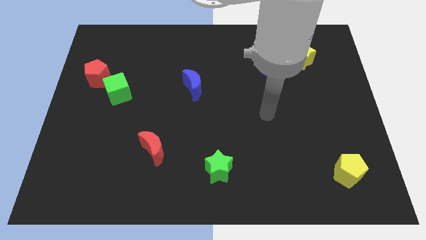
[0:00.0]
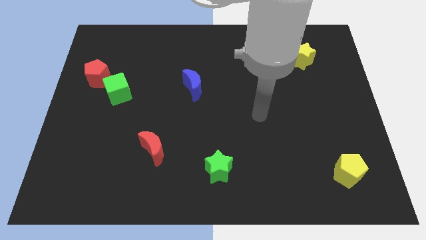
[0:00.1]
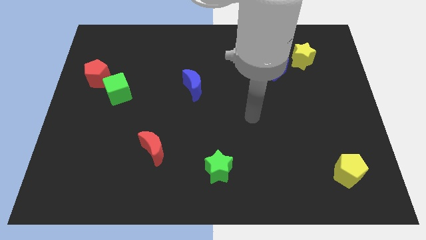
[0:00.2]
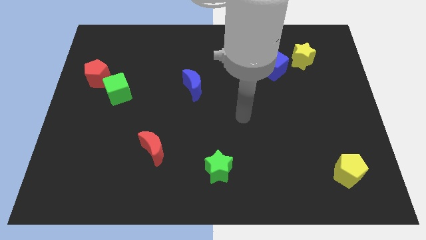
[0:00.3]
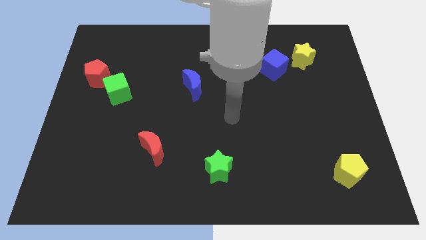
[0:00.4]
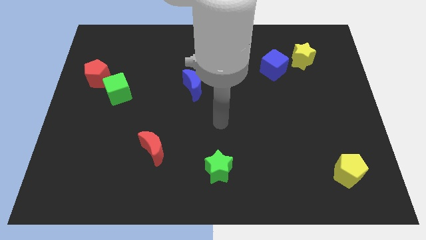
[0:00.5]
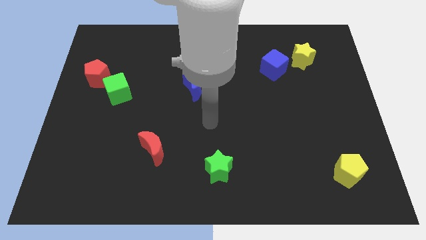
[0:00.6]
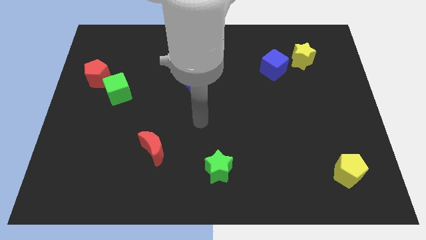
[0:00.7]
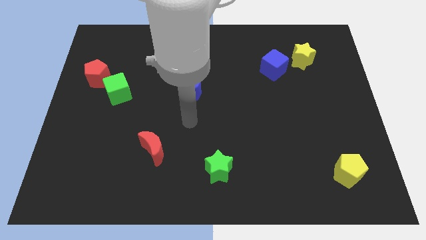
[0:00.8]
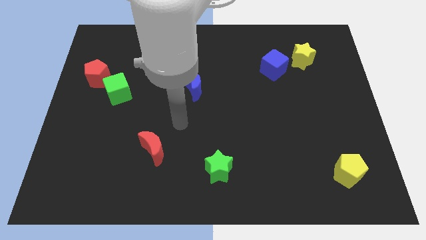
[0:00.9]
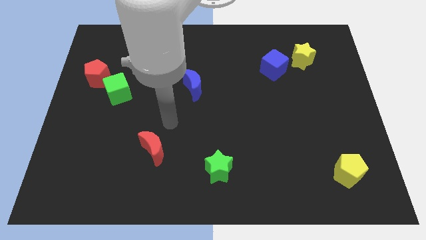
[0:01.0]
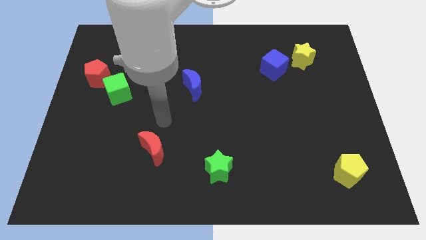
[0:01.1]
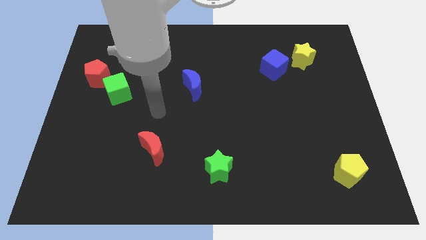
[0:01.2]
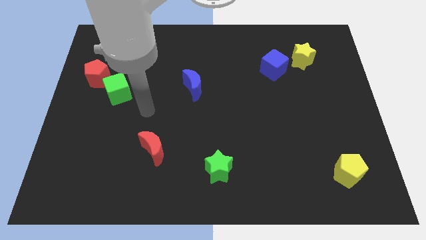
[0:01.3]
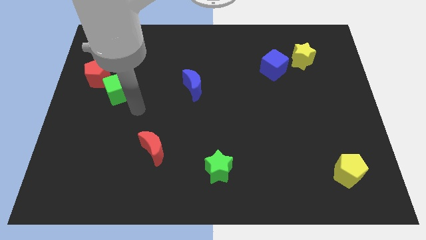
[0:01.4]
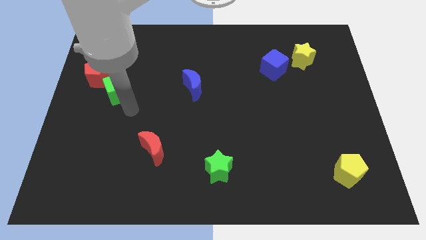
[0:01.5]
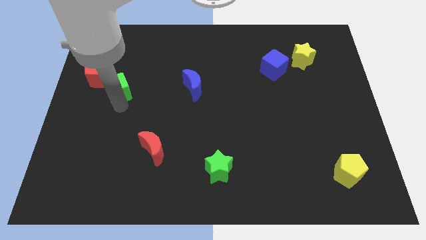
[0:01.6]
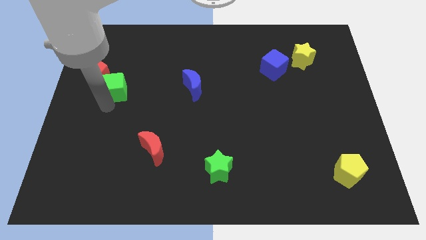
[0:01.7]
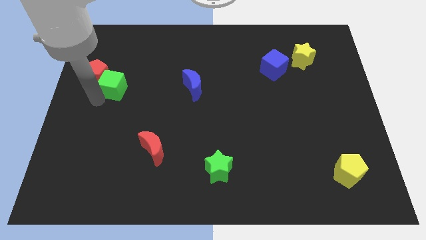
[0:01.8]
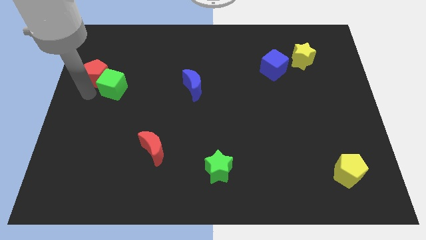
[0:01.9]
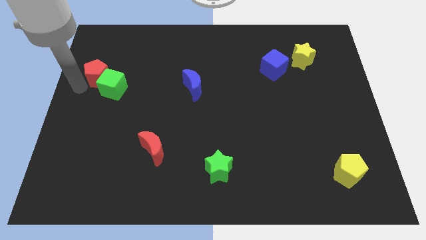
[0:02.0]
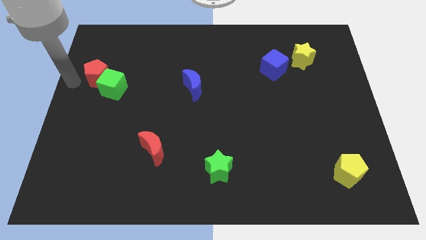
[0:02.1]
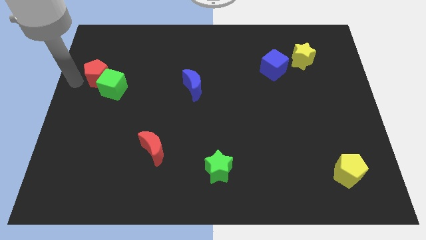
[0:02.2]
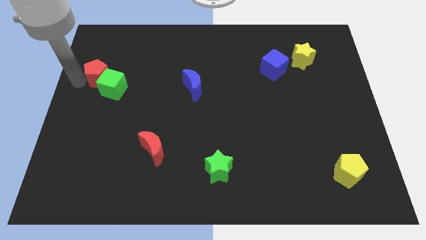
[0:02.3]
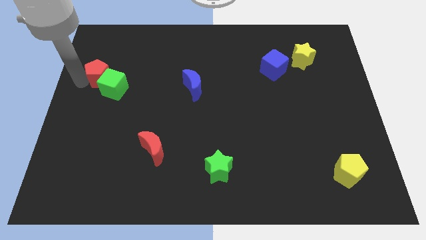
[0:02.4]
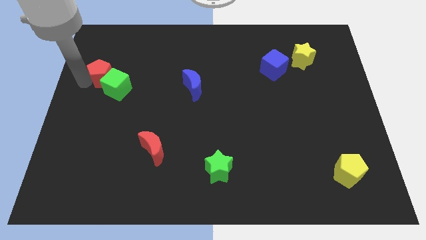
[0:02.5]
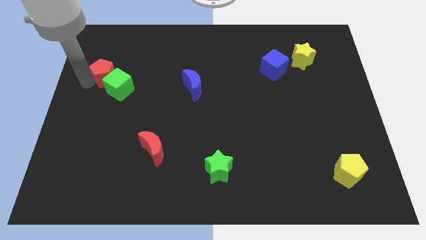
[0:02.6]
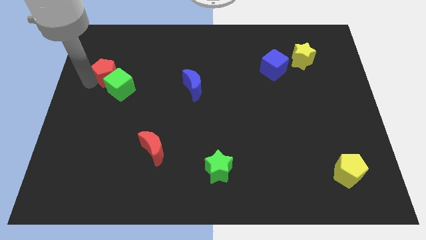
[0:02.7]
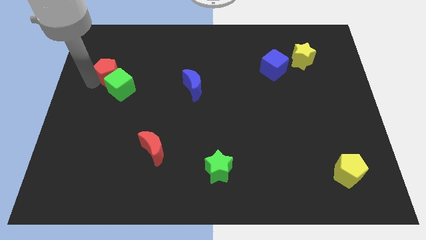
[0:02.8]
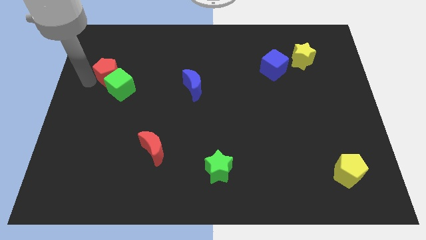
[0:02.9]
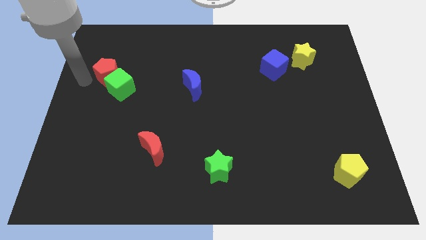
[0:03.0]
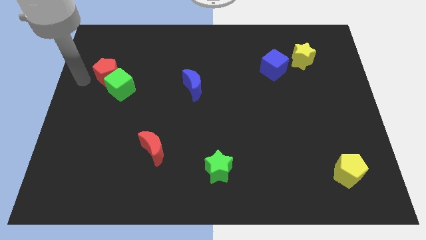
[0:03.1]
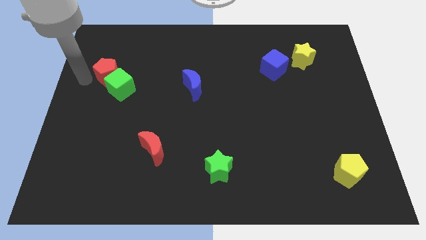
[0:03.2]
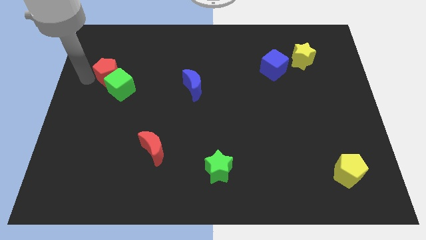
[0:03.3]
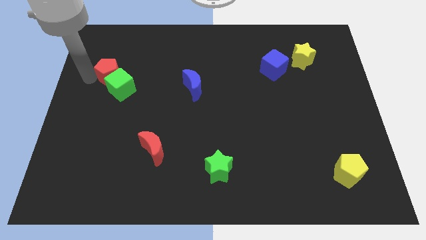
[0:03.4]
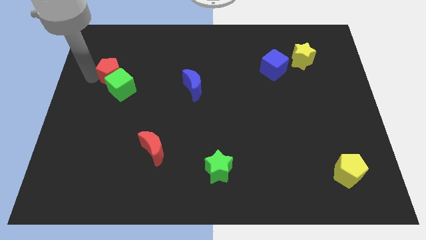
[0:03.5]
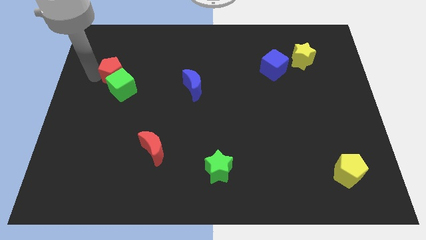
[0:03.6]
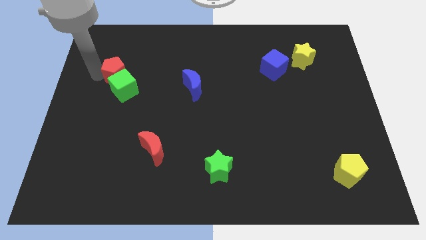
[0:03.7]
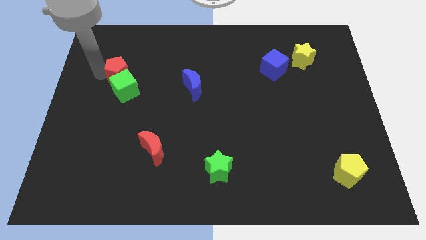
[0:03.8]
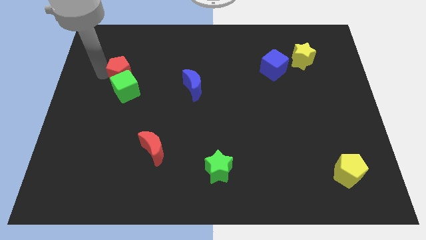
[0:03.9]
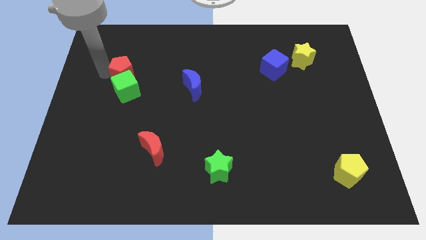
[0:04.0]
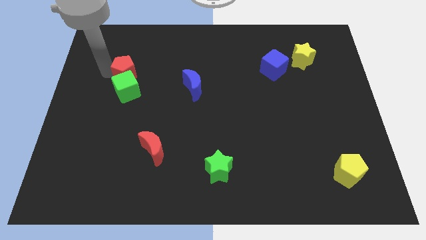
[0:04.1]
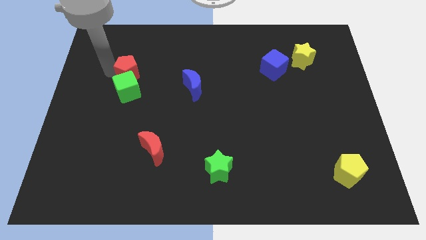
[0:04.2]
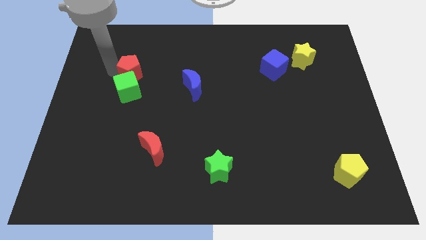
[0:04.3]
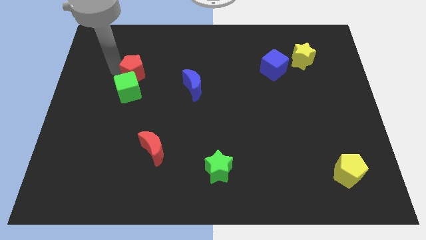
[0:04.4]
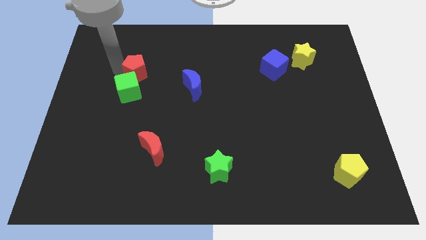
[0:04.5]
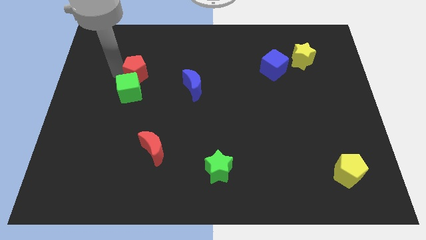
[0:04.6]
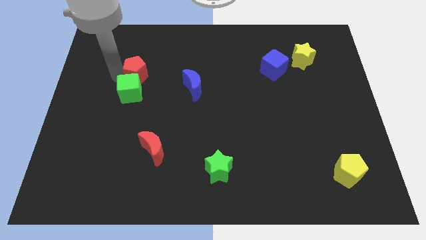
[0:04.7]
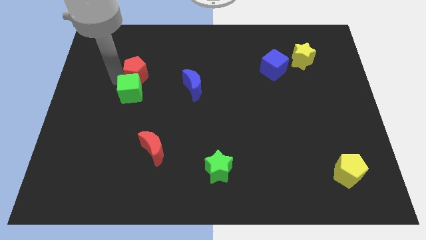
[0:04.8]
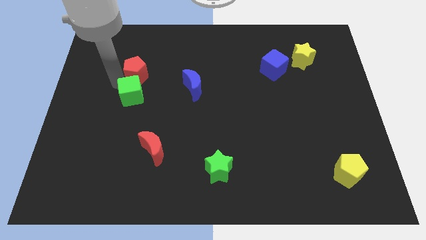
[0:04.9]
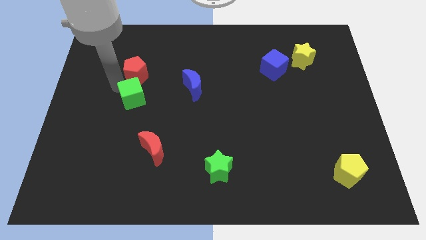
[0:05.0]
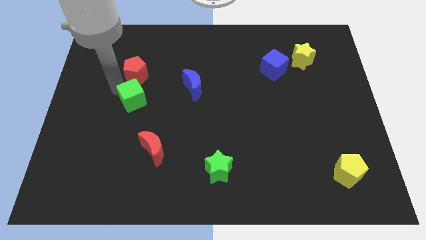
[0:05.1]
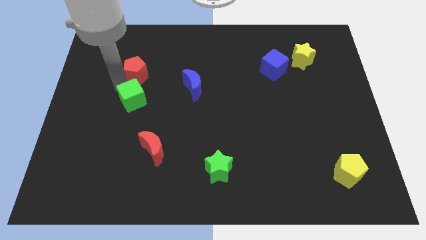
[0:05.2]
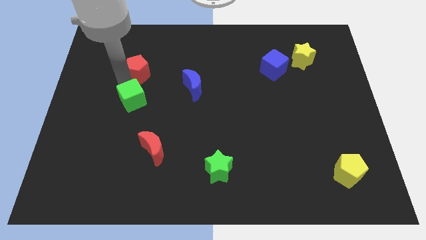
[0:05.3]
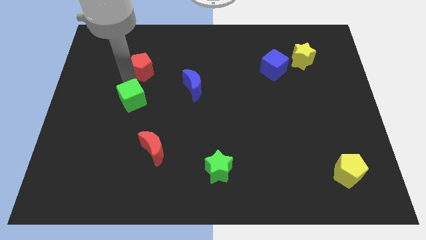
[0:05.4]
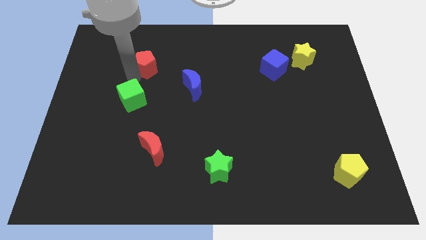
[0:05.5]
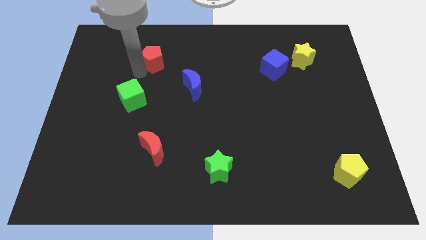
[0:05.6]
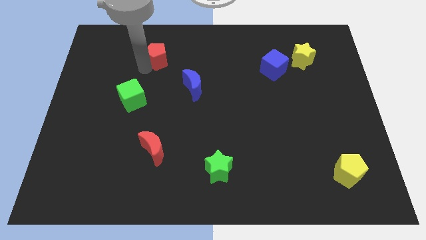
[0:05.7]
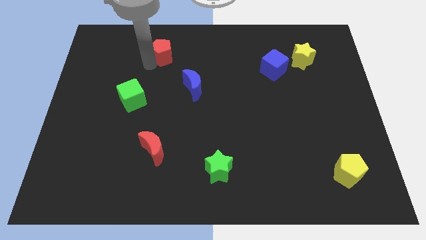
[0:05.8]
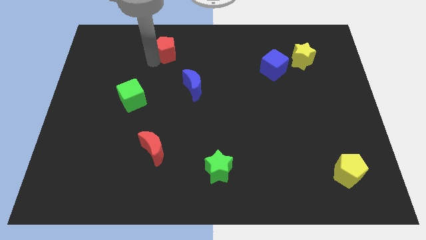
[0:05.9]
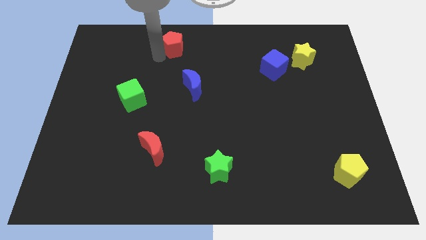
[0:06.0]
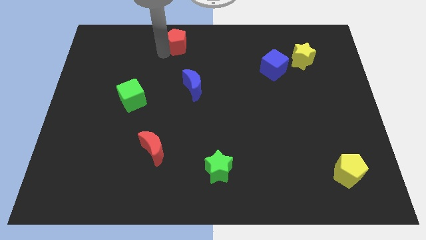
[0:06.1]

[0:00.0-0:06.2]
move the red pentagon to the top side
